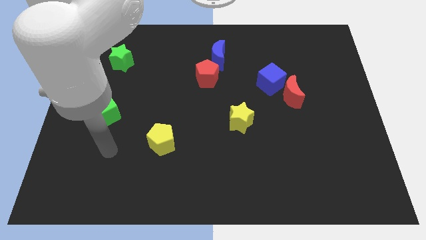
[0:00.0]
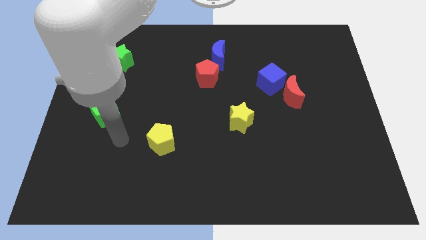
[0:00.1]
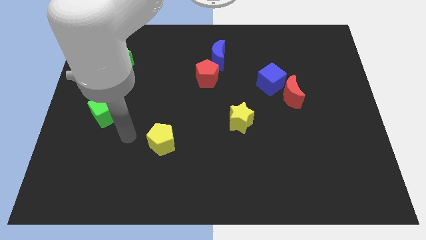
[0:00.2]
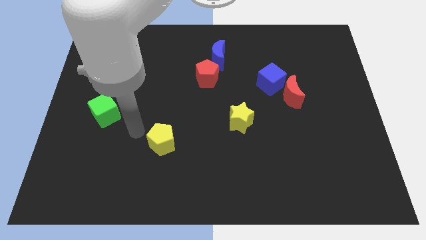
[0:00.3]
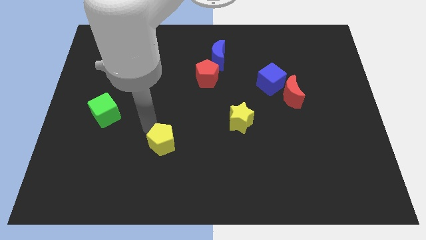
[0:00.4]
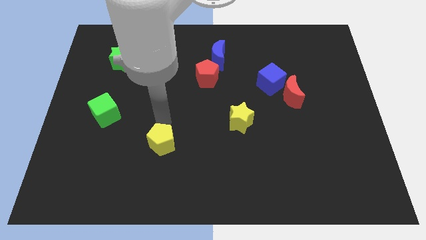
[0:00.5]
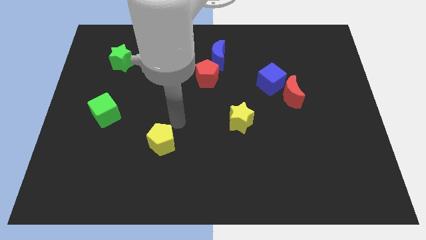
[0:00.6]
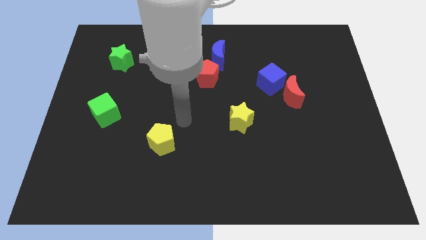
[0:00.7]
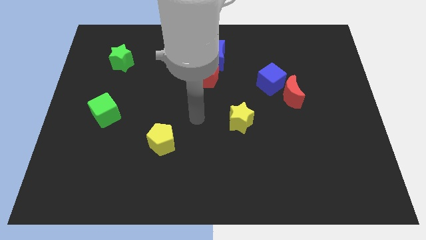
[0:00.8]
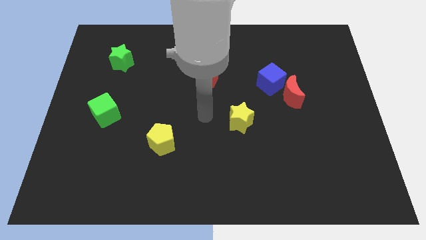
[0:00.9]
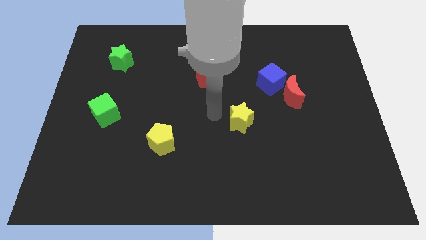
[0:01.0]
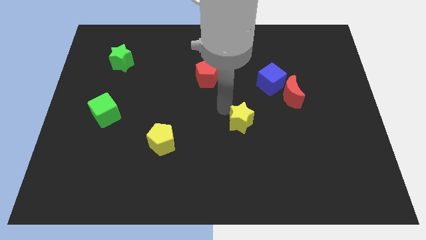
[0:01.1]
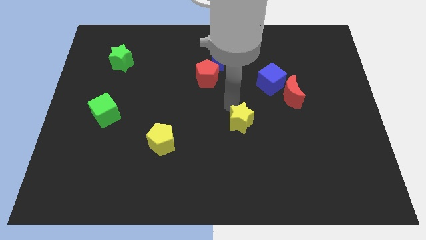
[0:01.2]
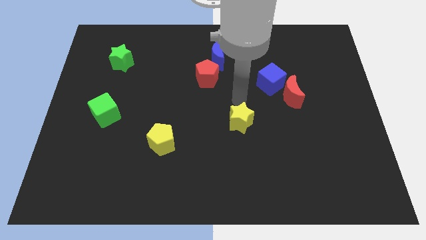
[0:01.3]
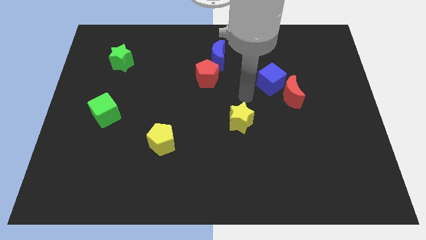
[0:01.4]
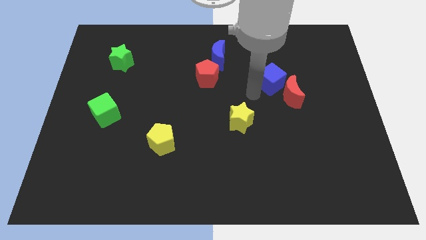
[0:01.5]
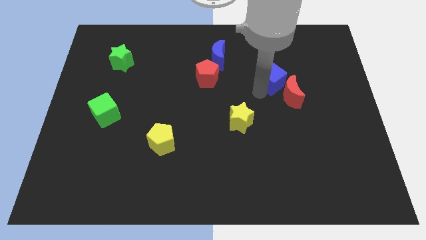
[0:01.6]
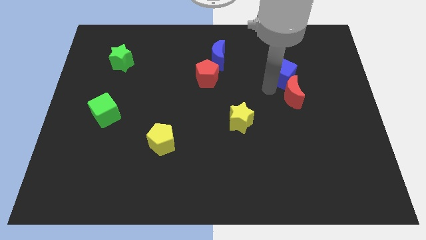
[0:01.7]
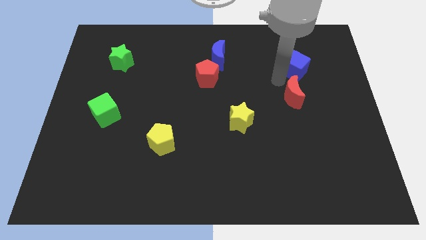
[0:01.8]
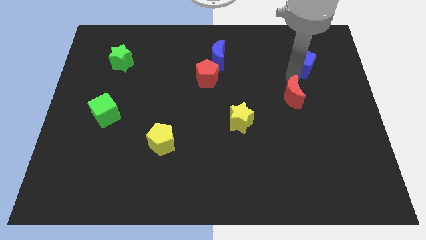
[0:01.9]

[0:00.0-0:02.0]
move the red moon away from the blue cube

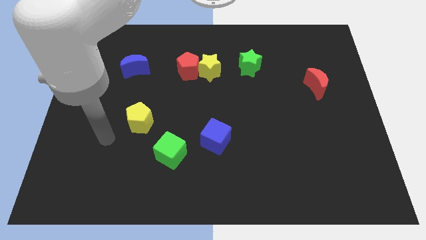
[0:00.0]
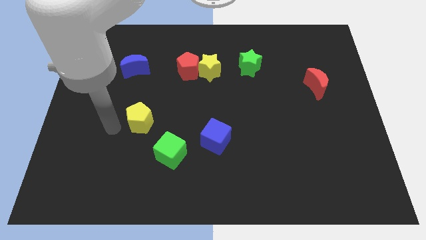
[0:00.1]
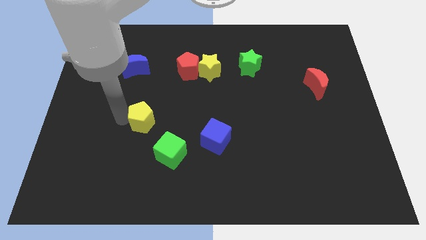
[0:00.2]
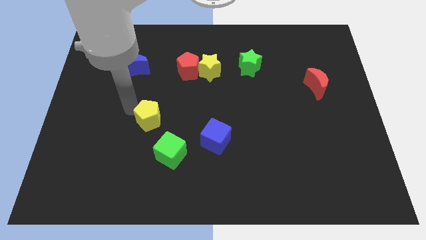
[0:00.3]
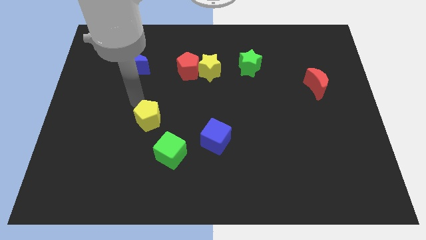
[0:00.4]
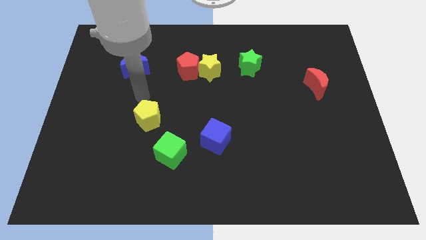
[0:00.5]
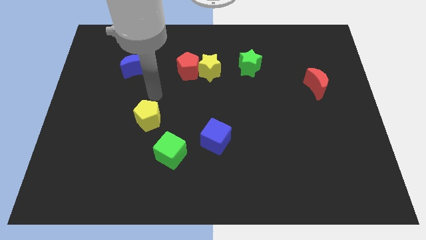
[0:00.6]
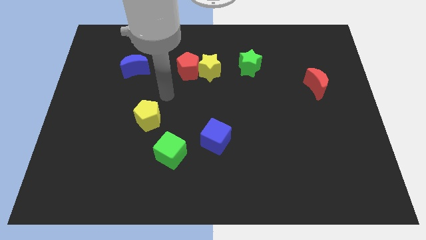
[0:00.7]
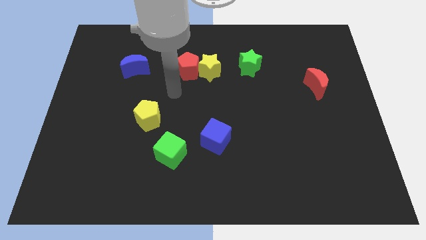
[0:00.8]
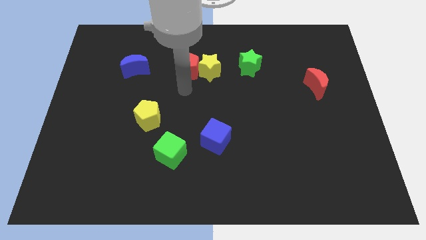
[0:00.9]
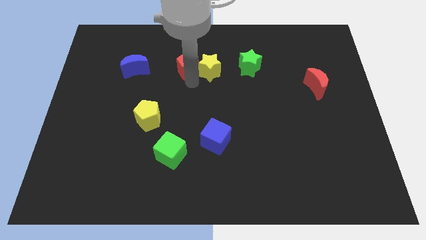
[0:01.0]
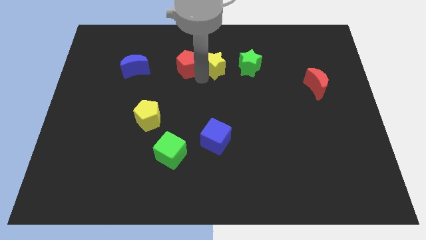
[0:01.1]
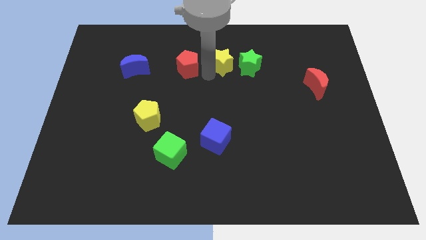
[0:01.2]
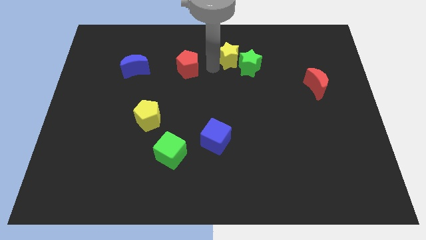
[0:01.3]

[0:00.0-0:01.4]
separate the red pentagon from the yellow star

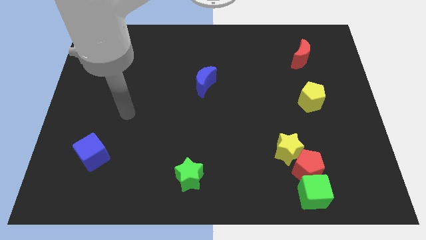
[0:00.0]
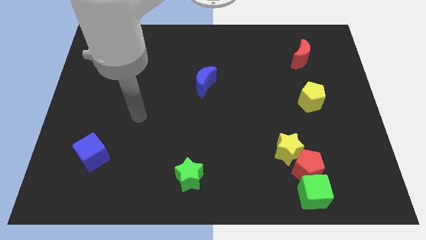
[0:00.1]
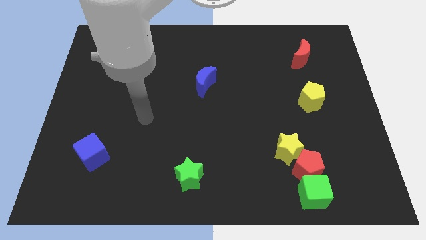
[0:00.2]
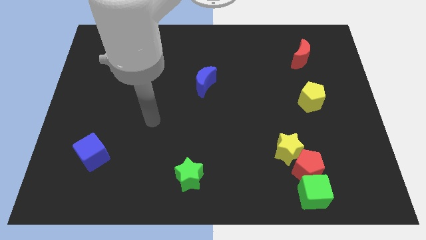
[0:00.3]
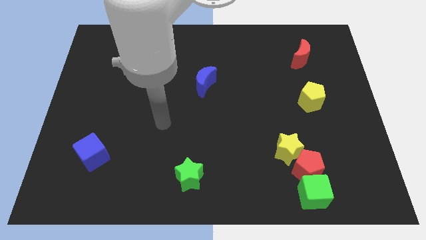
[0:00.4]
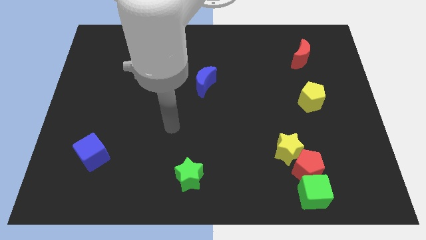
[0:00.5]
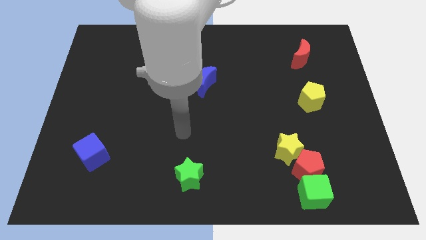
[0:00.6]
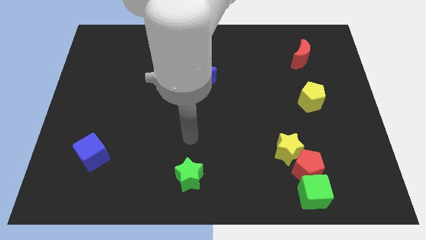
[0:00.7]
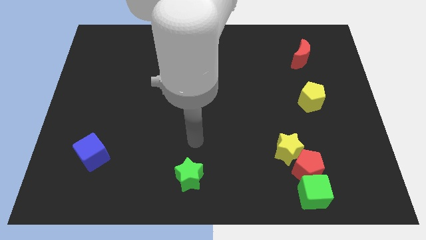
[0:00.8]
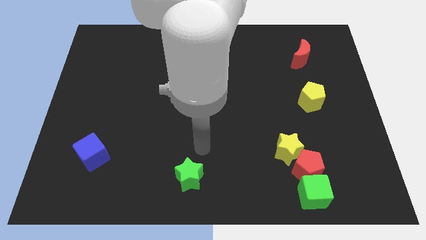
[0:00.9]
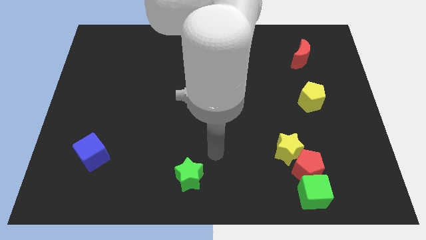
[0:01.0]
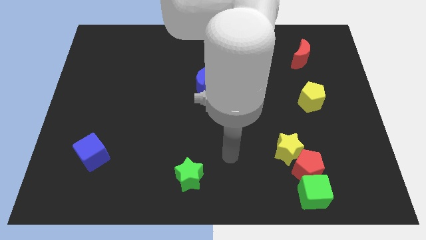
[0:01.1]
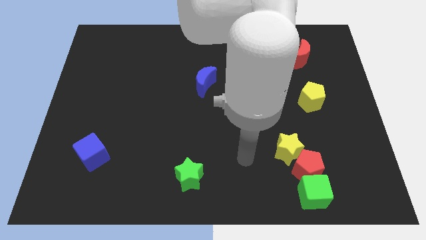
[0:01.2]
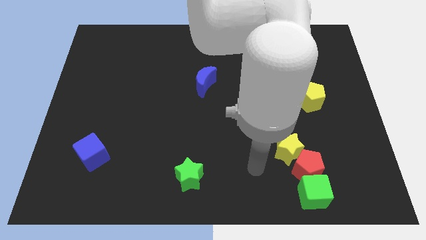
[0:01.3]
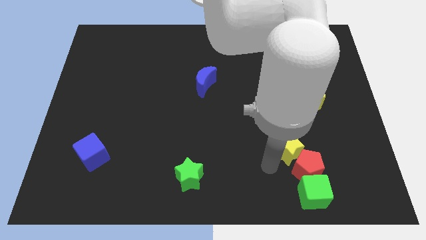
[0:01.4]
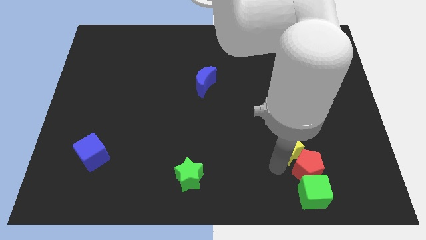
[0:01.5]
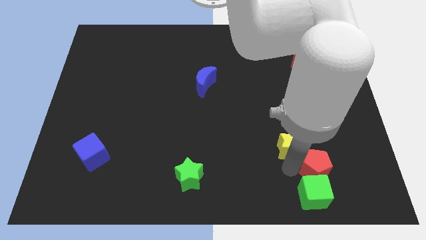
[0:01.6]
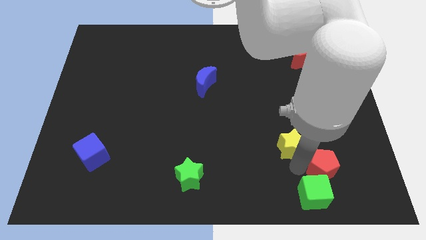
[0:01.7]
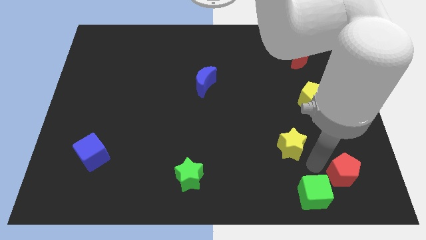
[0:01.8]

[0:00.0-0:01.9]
pull the yellow star apart from the red pentagon

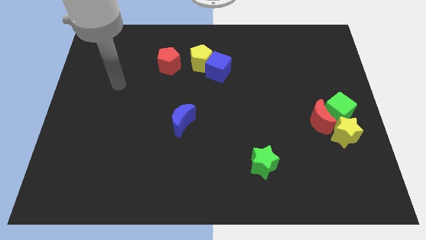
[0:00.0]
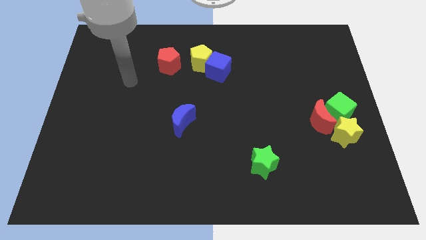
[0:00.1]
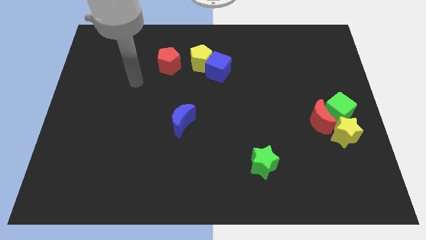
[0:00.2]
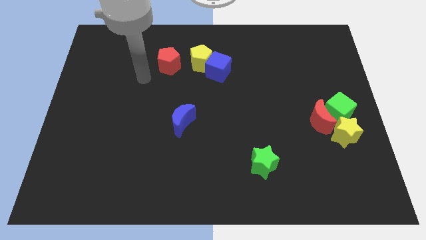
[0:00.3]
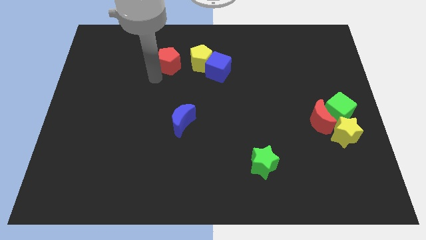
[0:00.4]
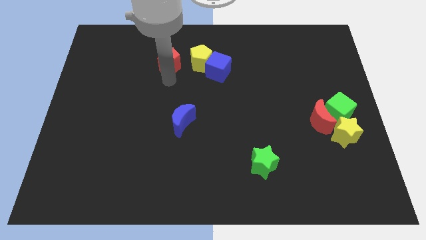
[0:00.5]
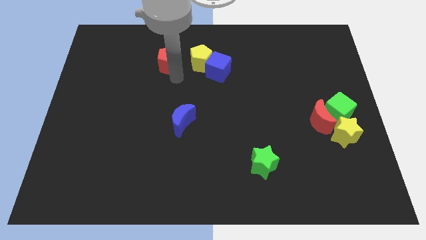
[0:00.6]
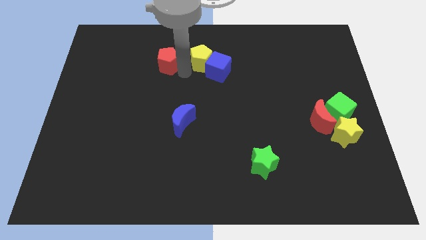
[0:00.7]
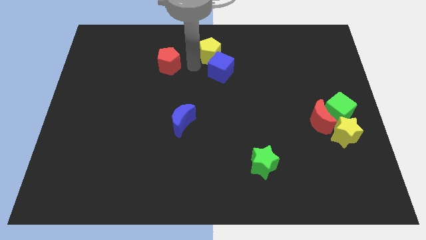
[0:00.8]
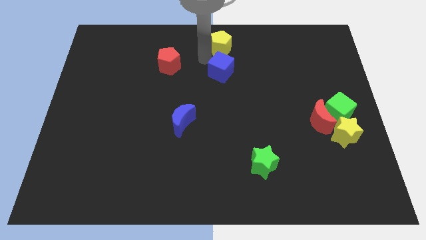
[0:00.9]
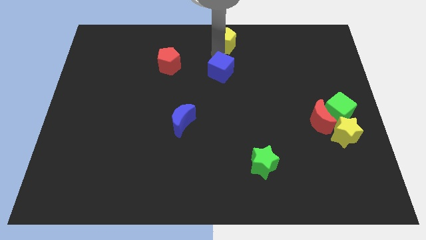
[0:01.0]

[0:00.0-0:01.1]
move the blue cube away from the yellow pentagon

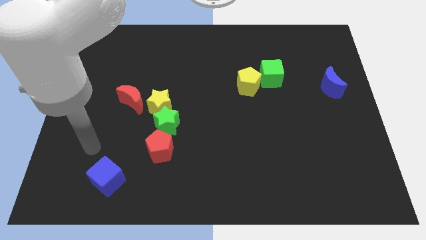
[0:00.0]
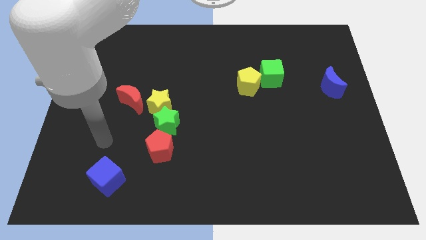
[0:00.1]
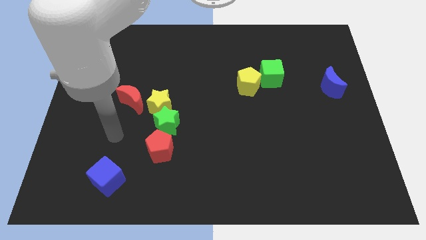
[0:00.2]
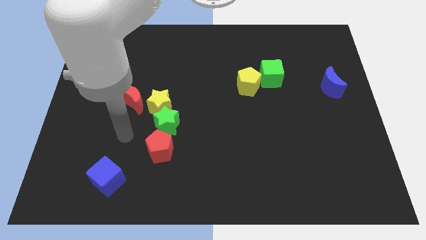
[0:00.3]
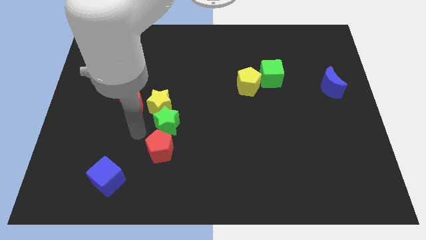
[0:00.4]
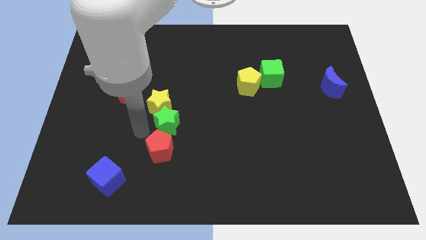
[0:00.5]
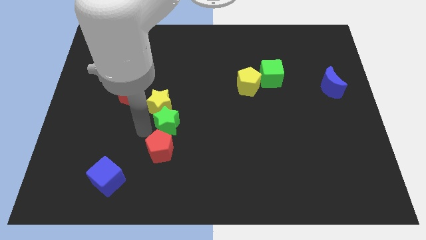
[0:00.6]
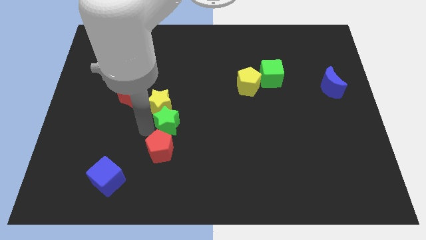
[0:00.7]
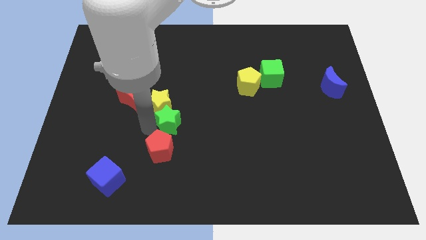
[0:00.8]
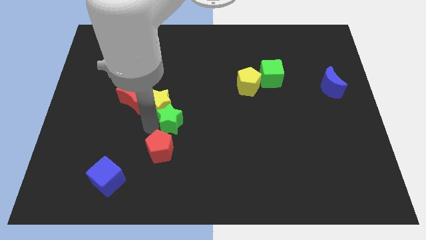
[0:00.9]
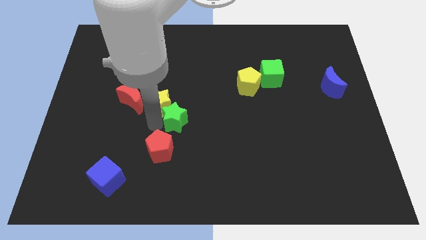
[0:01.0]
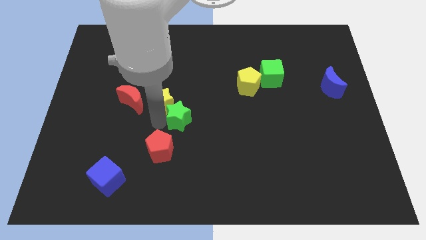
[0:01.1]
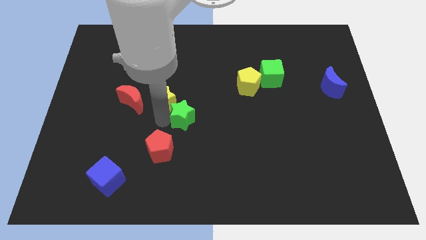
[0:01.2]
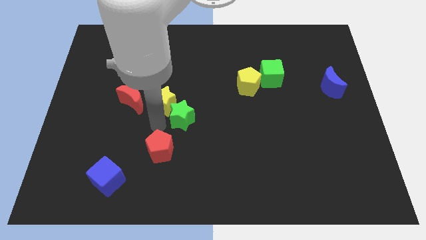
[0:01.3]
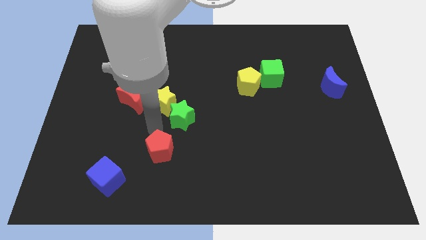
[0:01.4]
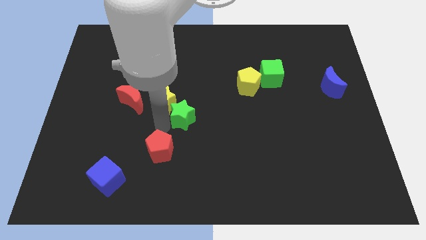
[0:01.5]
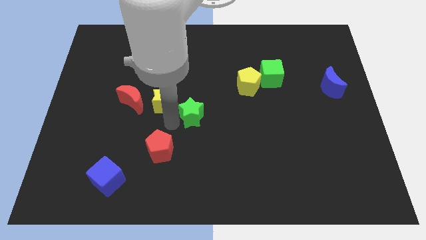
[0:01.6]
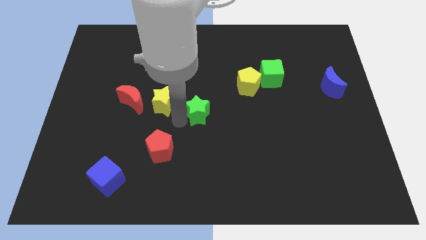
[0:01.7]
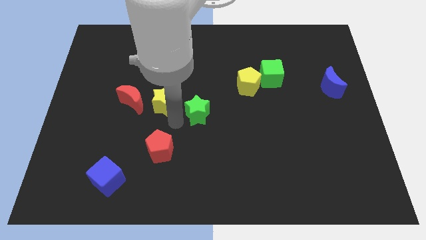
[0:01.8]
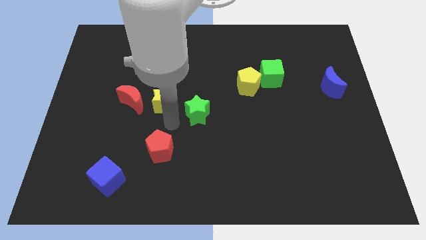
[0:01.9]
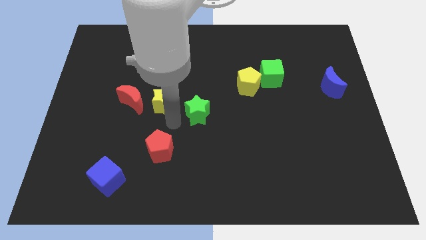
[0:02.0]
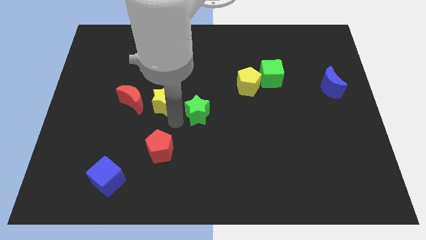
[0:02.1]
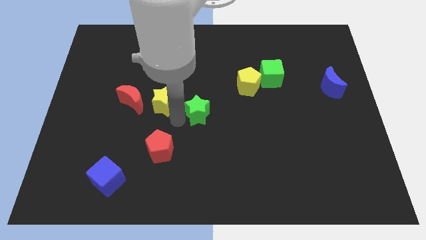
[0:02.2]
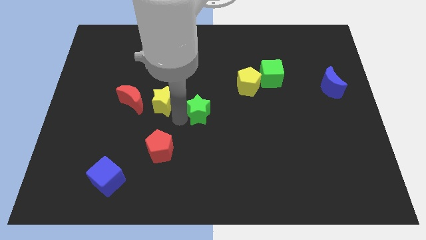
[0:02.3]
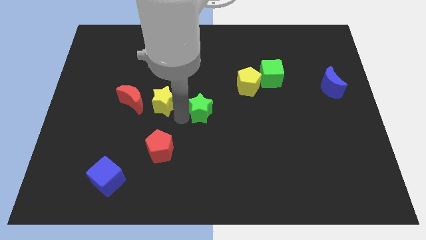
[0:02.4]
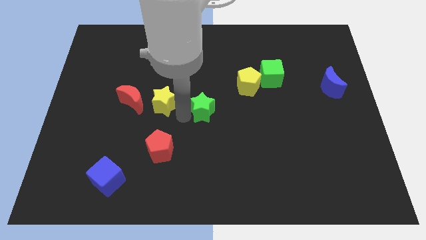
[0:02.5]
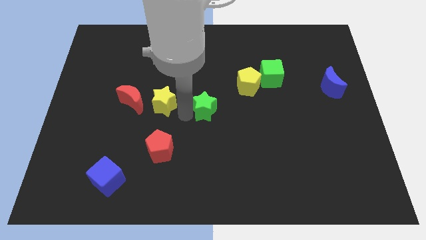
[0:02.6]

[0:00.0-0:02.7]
separate the green star from the yellow star and red pentagon

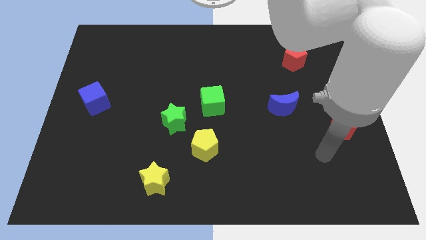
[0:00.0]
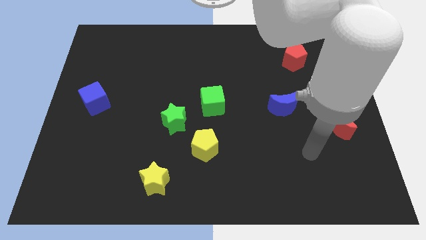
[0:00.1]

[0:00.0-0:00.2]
separate the yellow pentagon from the green star
